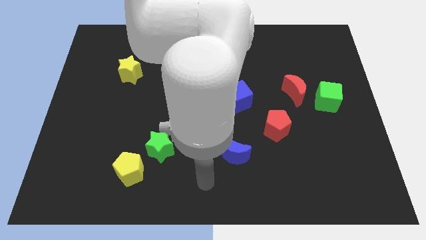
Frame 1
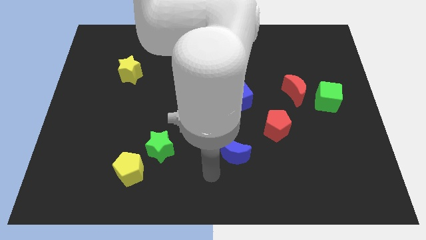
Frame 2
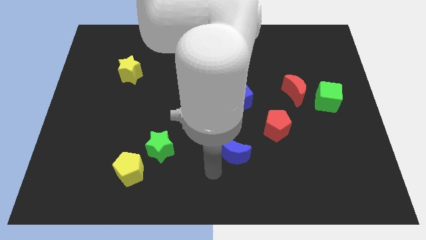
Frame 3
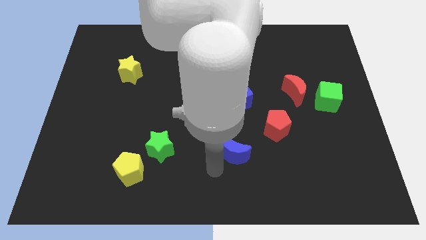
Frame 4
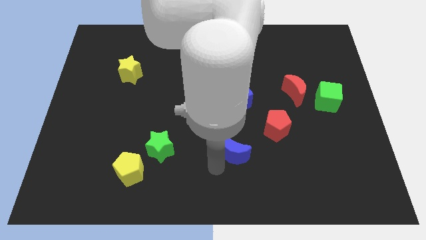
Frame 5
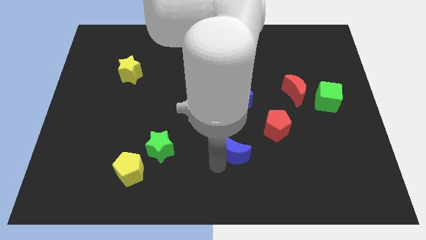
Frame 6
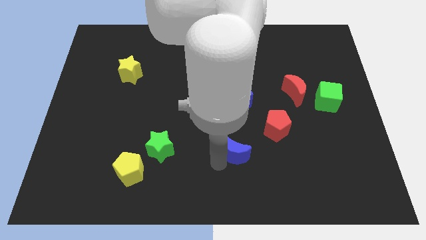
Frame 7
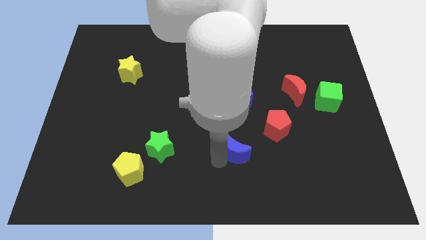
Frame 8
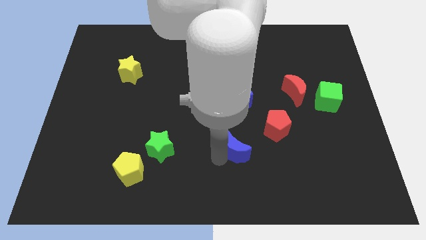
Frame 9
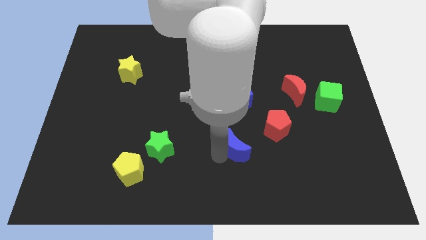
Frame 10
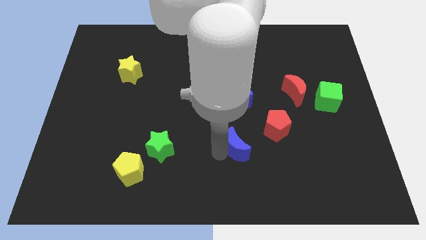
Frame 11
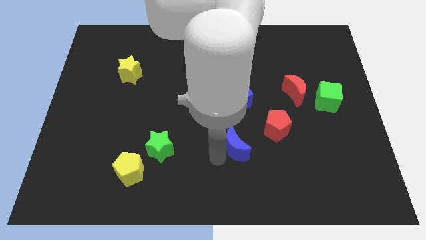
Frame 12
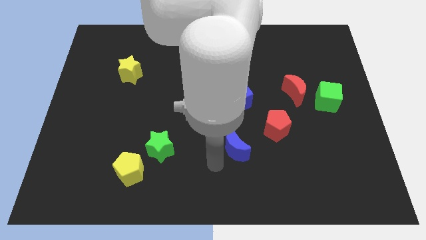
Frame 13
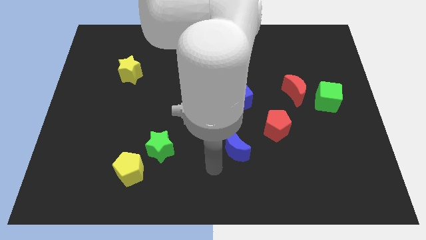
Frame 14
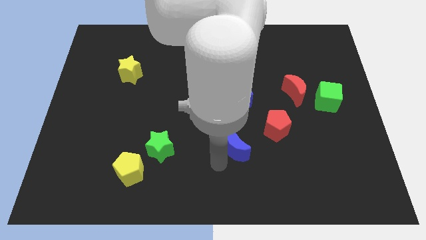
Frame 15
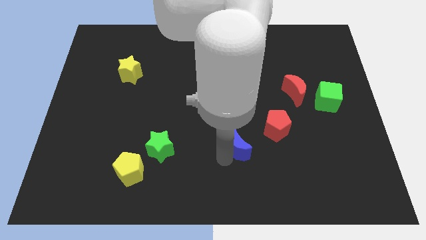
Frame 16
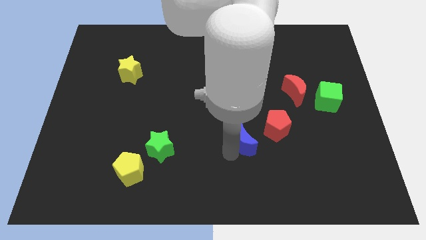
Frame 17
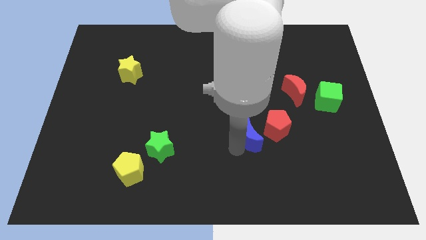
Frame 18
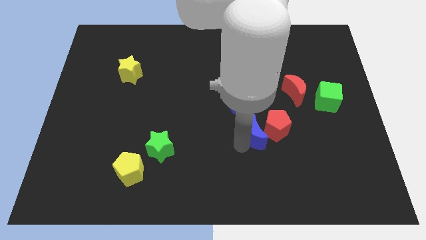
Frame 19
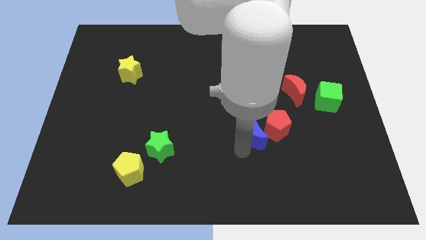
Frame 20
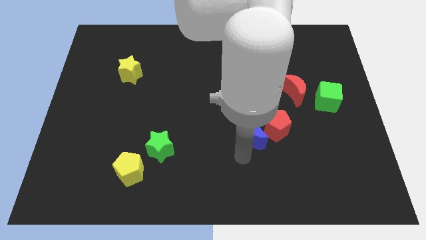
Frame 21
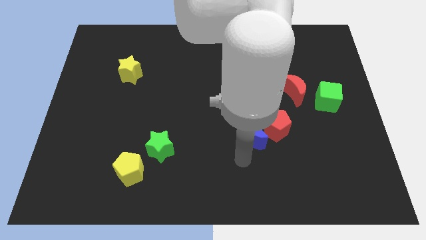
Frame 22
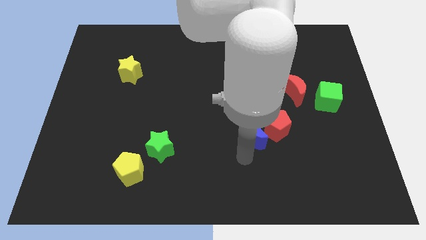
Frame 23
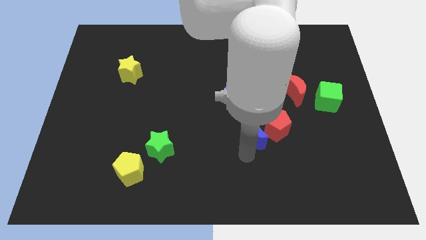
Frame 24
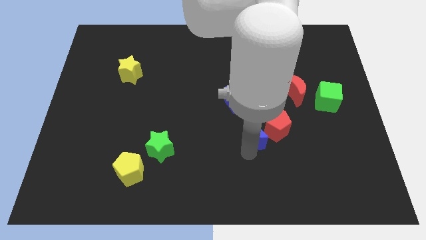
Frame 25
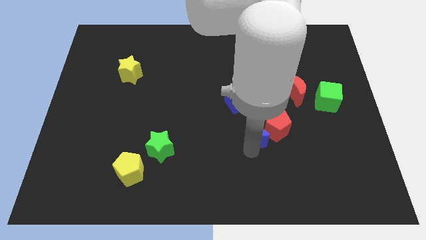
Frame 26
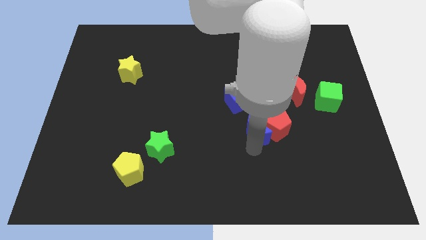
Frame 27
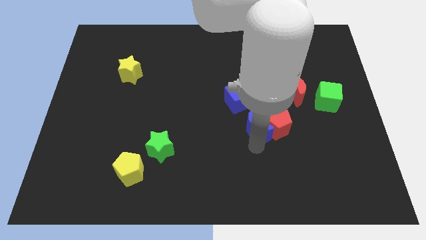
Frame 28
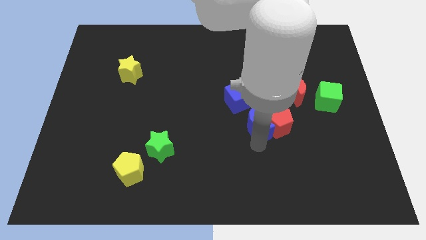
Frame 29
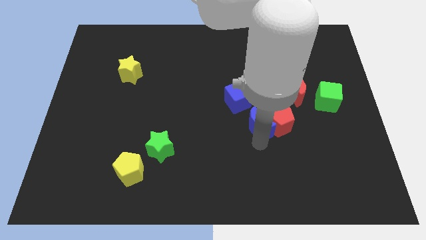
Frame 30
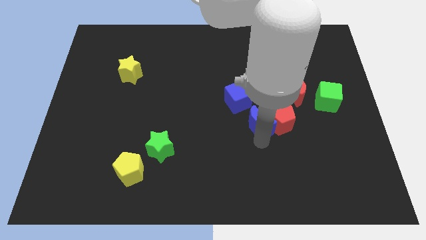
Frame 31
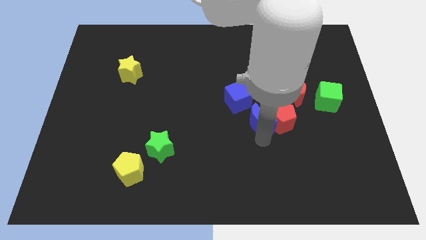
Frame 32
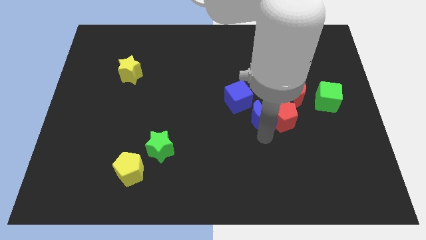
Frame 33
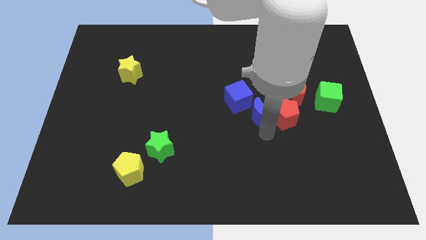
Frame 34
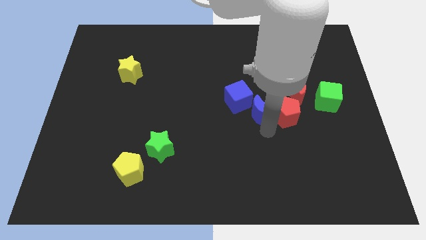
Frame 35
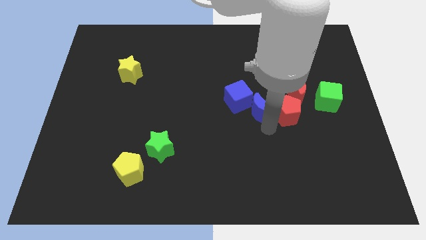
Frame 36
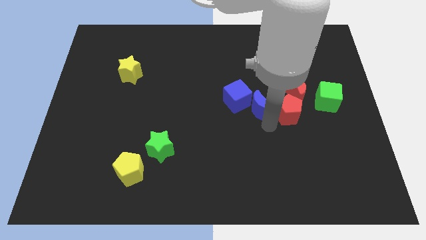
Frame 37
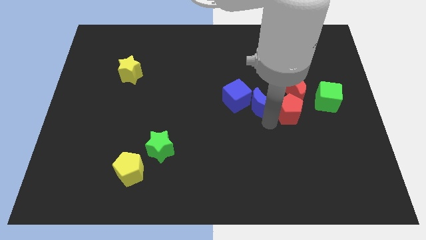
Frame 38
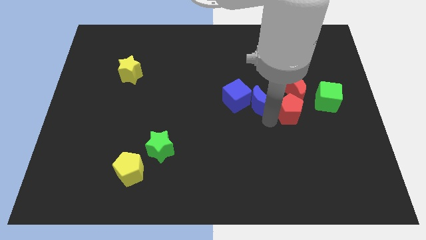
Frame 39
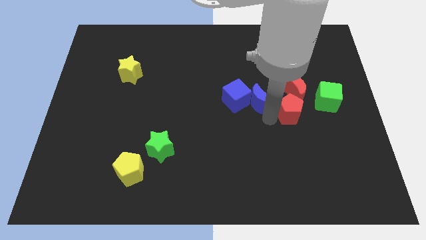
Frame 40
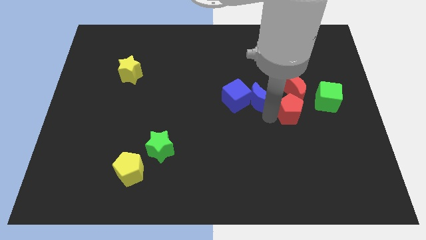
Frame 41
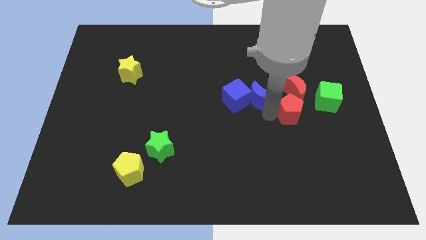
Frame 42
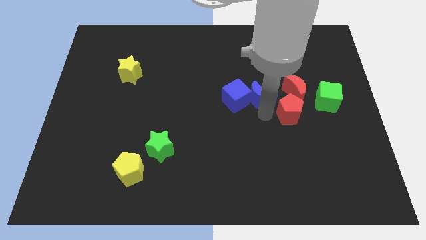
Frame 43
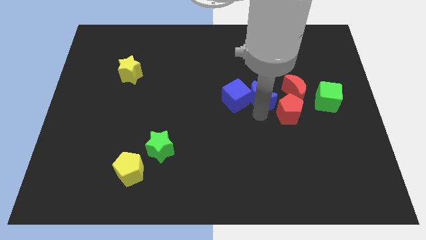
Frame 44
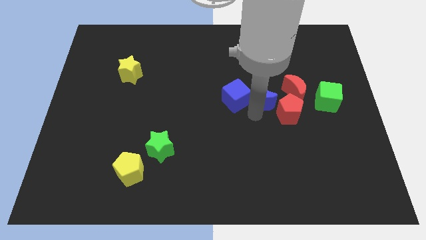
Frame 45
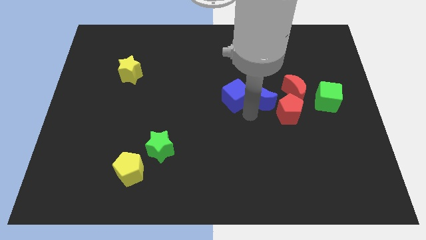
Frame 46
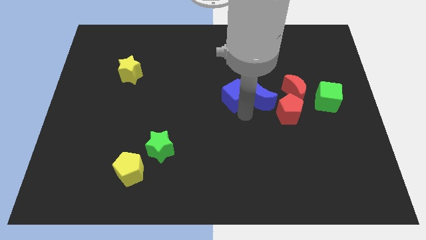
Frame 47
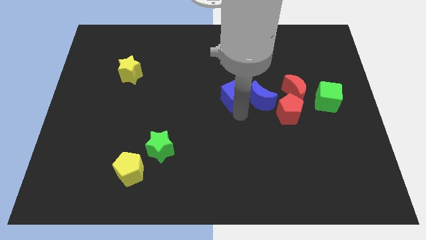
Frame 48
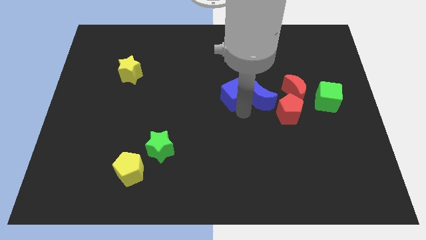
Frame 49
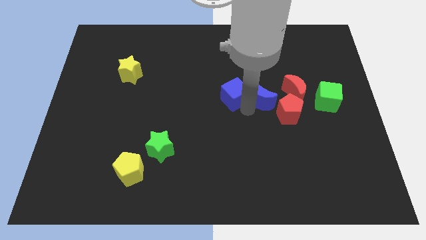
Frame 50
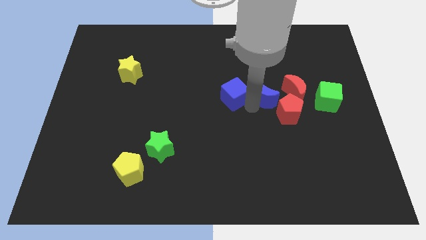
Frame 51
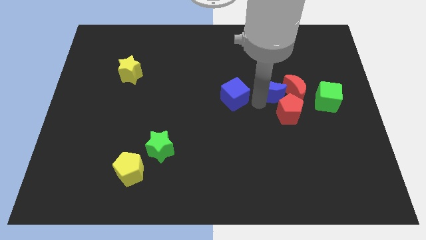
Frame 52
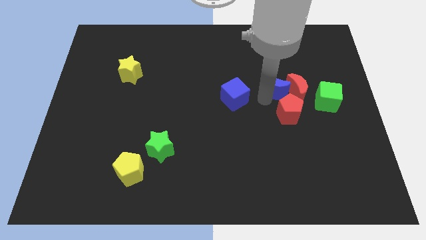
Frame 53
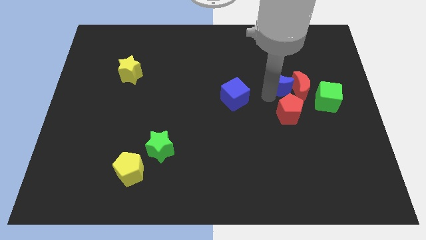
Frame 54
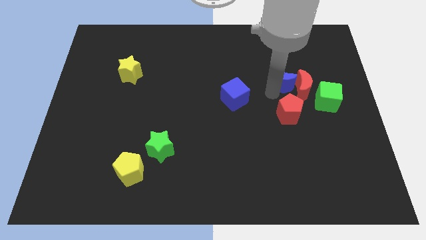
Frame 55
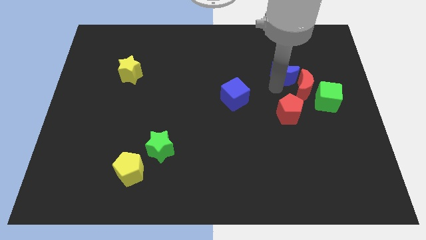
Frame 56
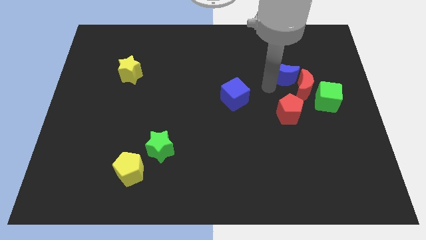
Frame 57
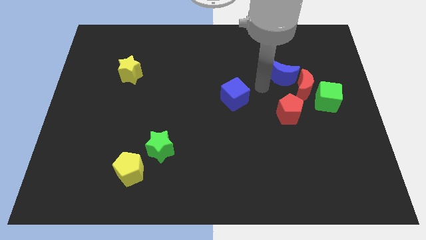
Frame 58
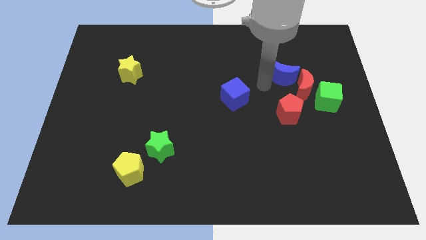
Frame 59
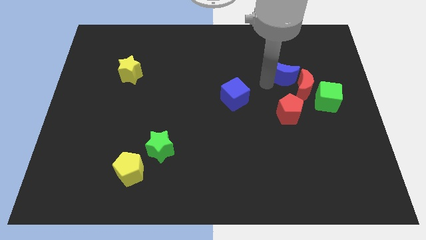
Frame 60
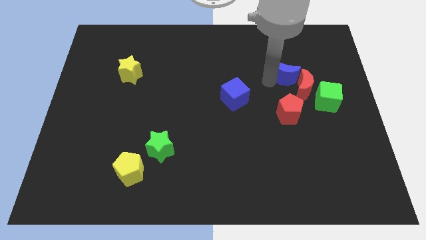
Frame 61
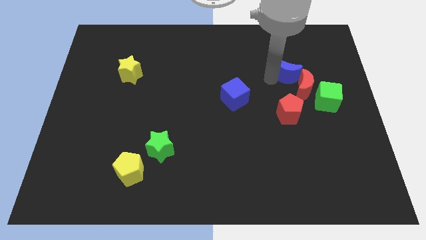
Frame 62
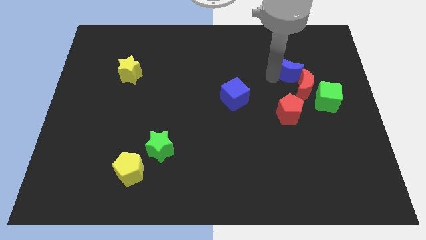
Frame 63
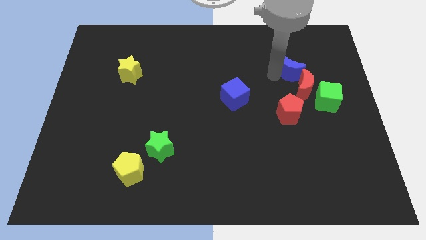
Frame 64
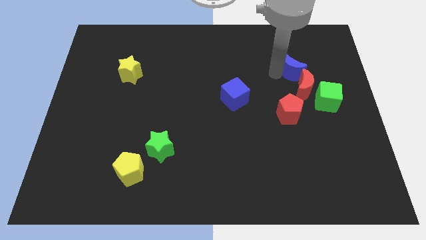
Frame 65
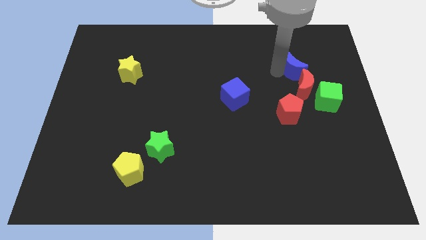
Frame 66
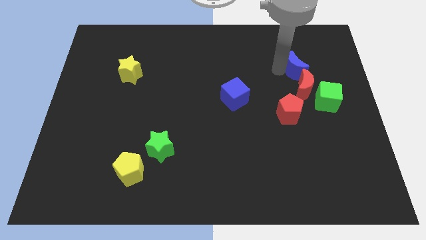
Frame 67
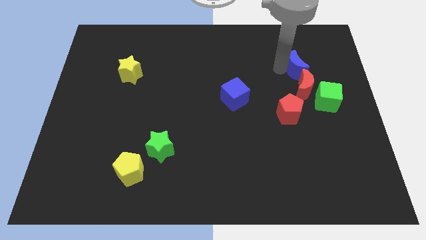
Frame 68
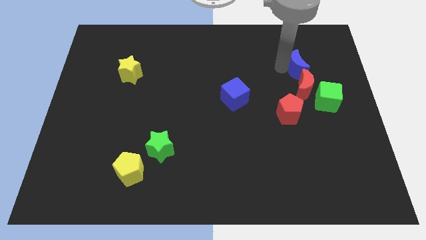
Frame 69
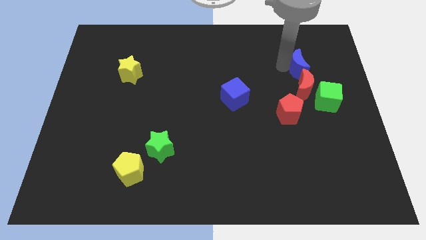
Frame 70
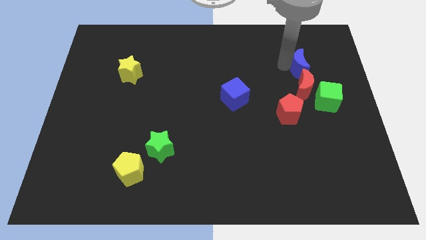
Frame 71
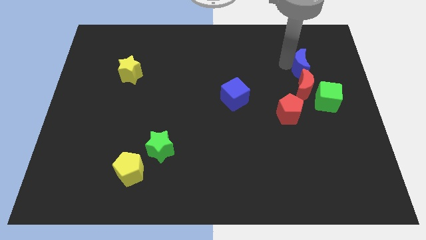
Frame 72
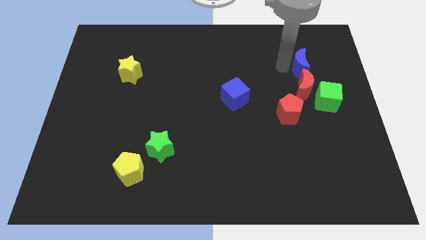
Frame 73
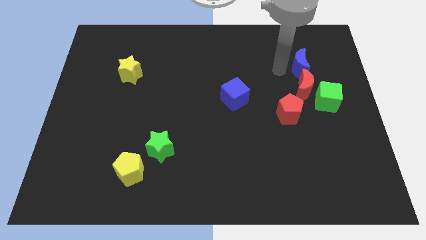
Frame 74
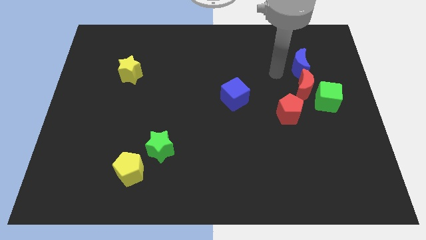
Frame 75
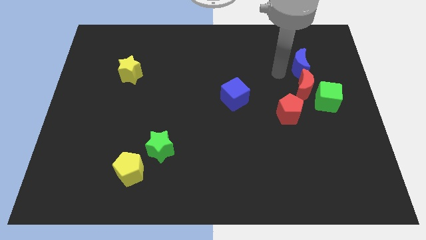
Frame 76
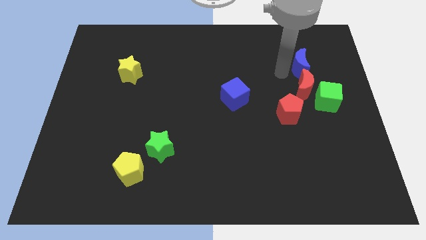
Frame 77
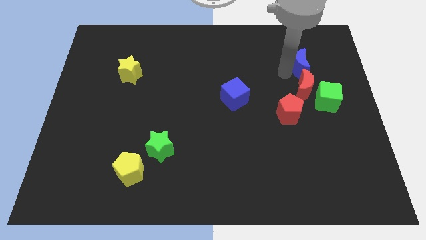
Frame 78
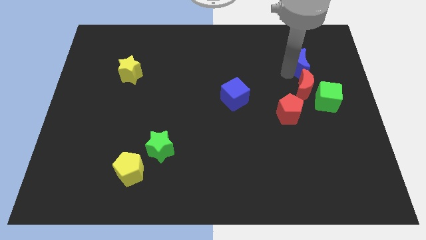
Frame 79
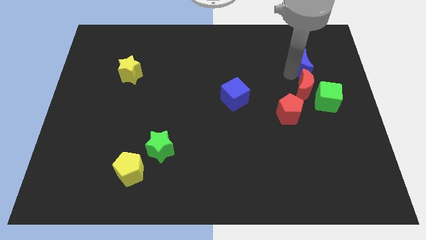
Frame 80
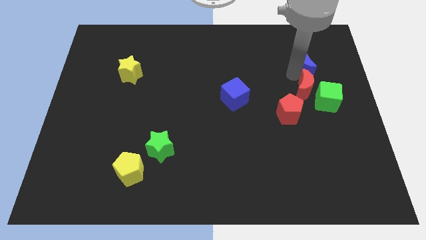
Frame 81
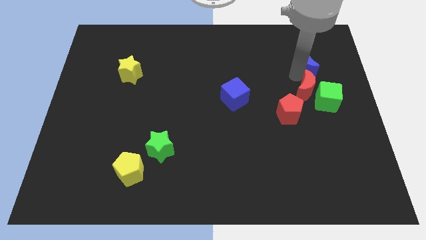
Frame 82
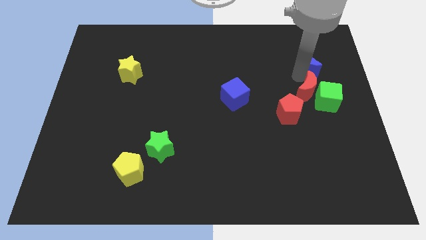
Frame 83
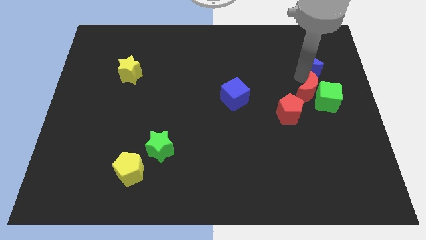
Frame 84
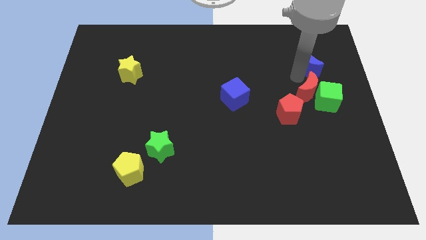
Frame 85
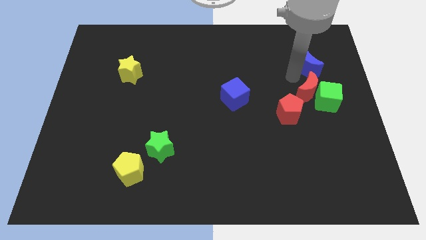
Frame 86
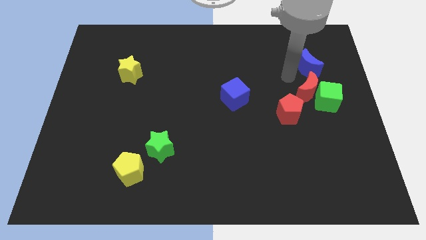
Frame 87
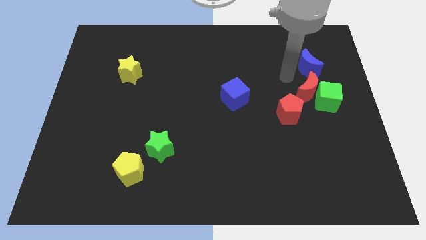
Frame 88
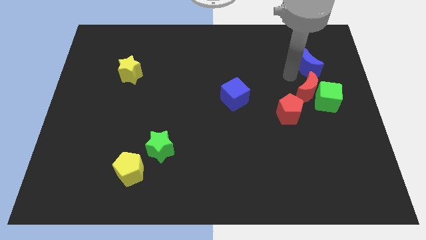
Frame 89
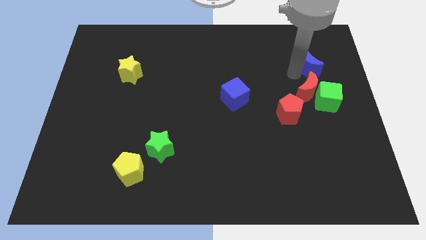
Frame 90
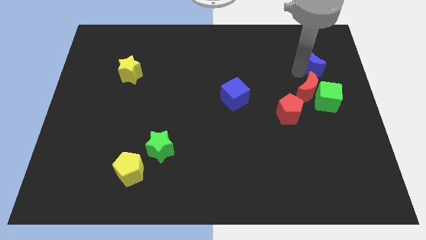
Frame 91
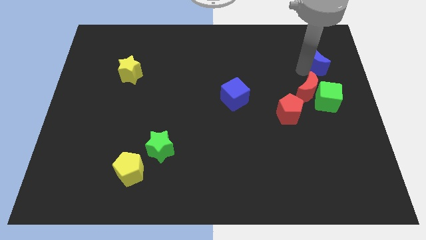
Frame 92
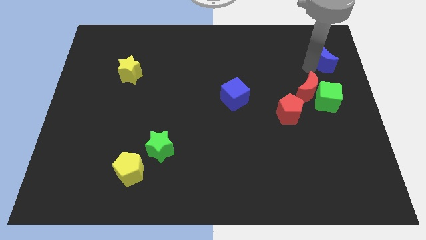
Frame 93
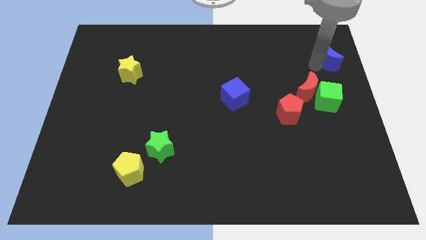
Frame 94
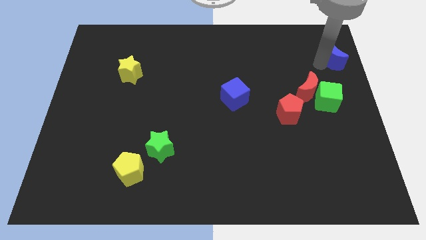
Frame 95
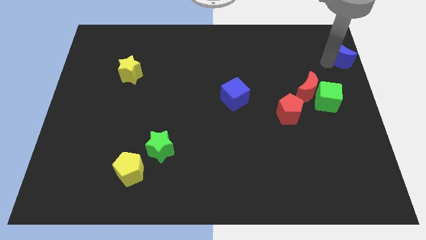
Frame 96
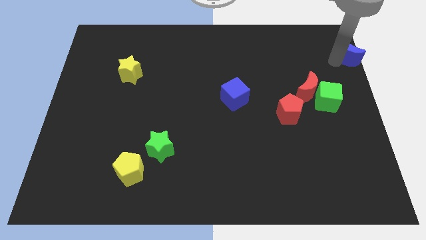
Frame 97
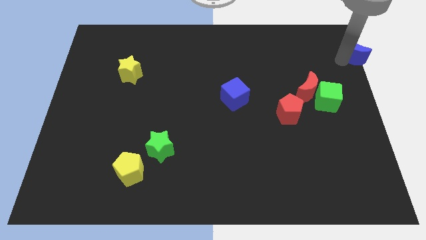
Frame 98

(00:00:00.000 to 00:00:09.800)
put the blue moon to the top right corner
